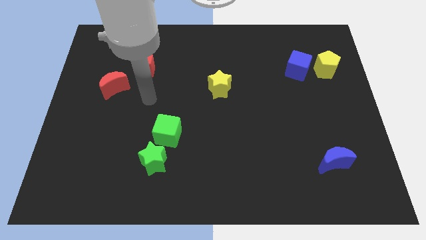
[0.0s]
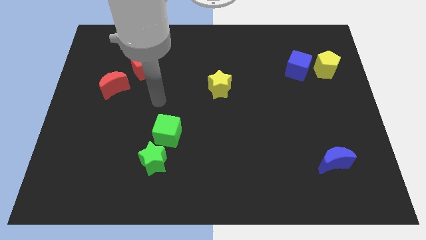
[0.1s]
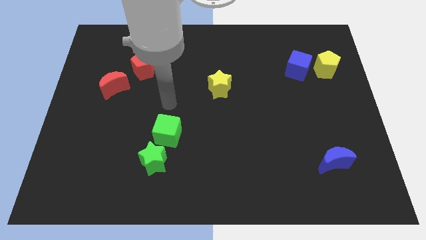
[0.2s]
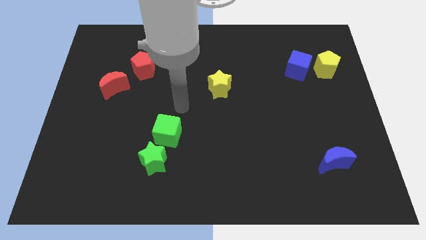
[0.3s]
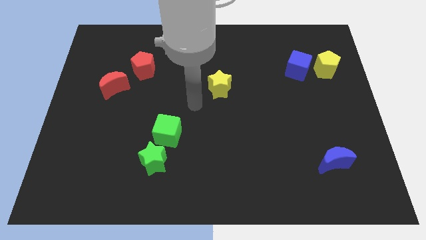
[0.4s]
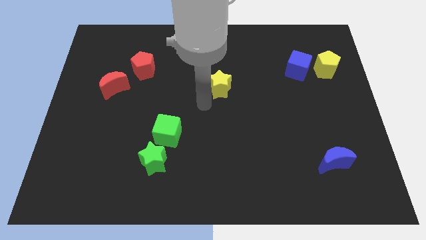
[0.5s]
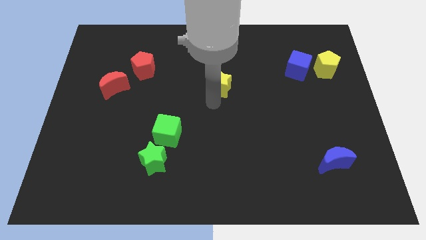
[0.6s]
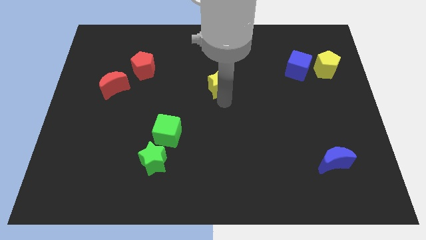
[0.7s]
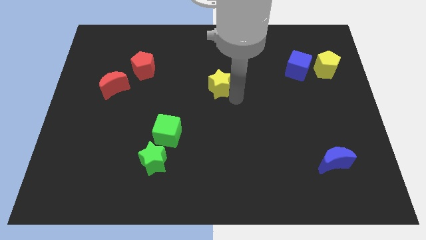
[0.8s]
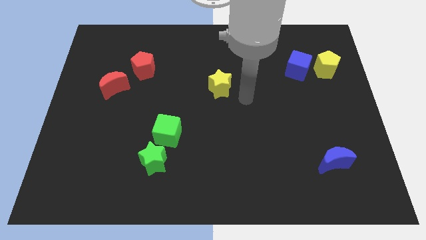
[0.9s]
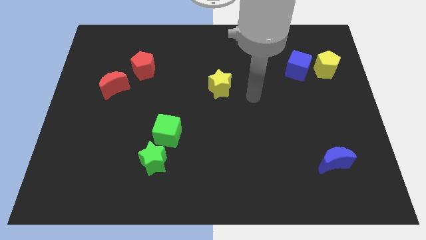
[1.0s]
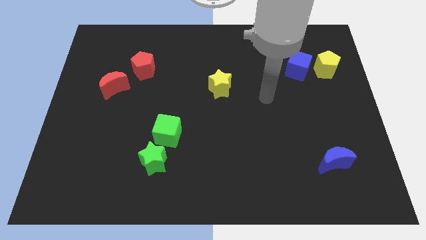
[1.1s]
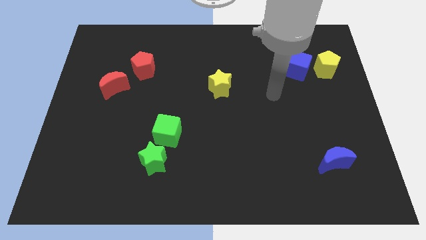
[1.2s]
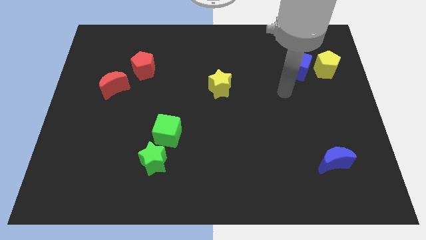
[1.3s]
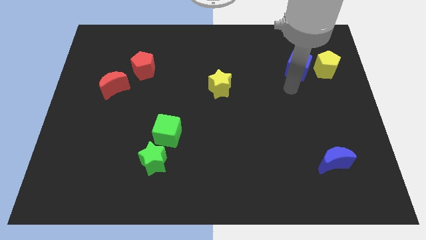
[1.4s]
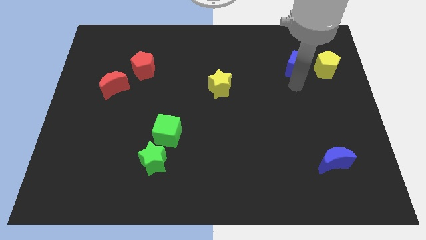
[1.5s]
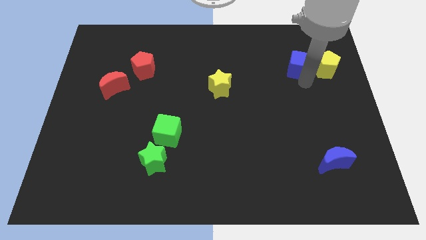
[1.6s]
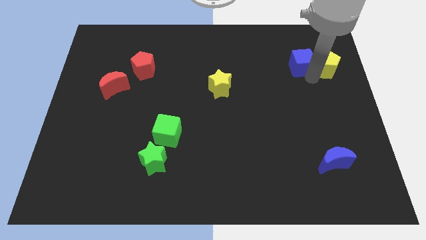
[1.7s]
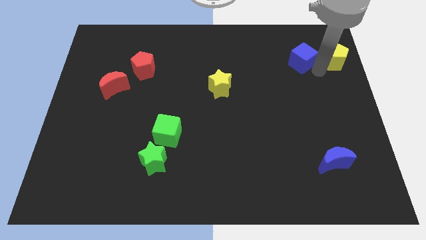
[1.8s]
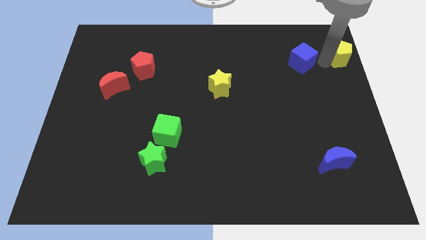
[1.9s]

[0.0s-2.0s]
move the blue cube away from the yellow pentagon

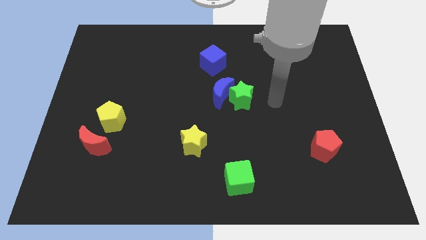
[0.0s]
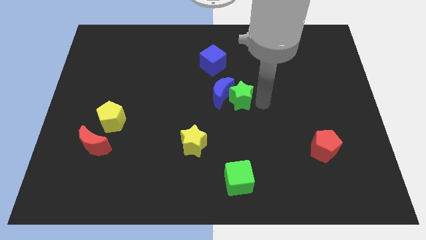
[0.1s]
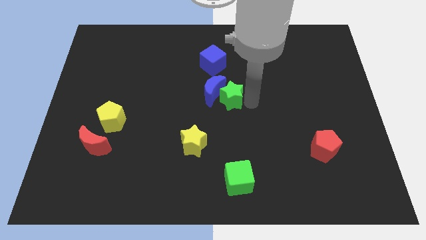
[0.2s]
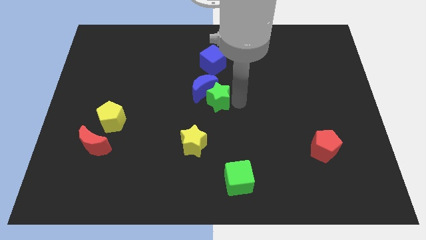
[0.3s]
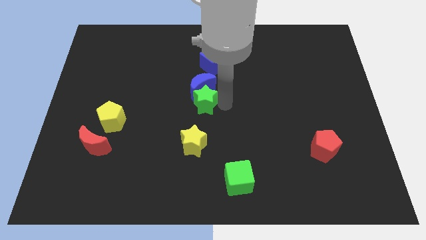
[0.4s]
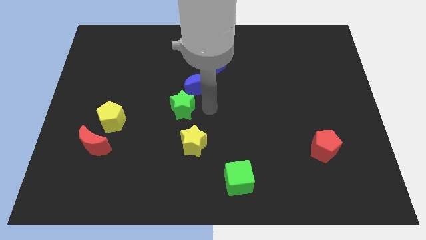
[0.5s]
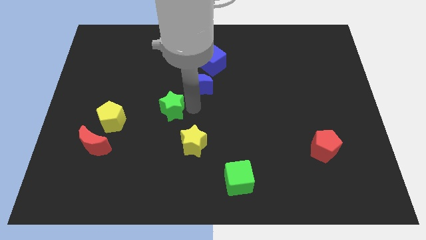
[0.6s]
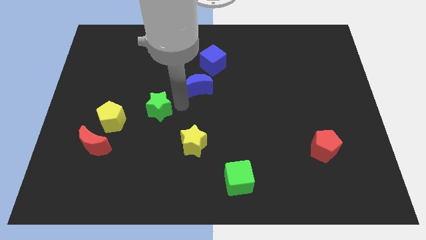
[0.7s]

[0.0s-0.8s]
separate the blue moon from the green star

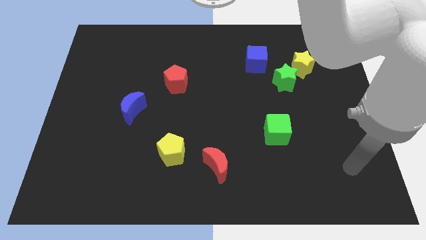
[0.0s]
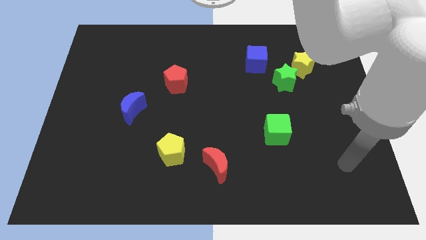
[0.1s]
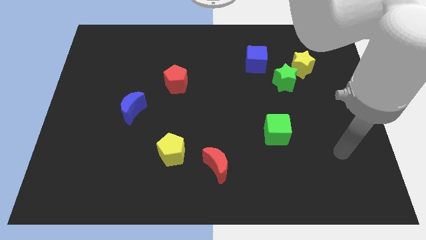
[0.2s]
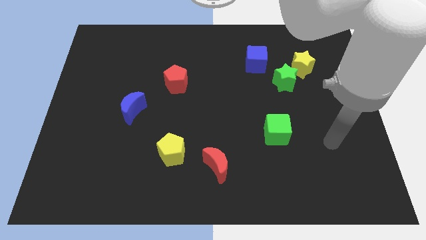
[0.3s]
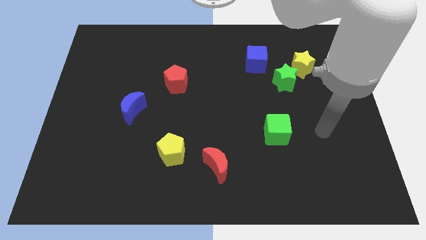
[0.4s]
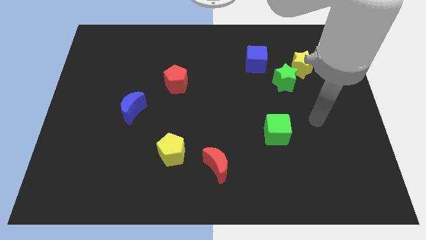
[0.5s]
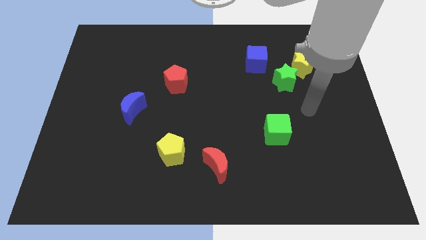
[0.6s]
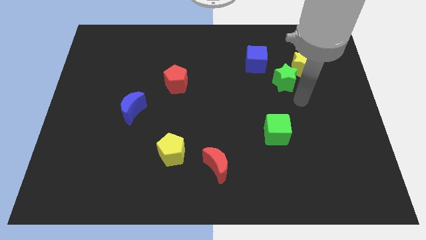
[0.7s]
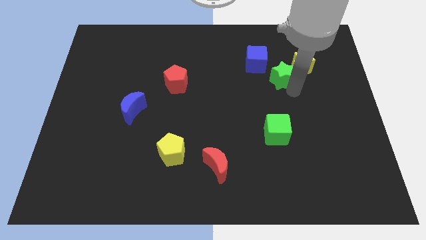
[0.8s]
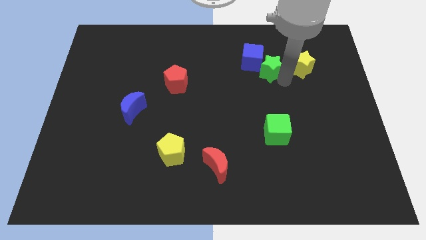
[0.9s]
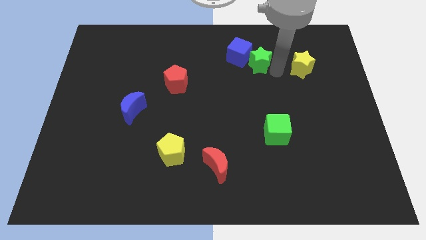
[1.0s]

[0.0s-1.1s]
move the yellow star away from the green star

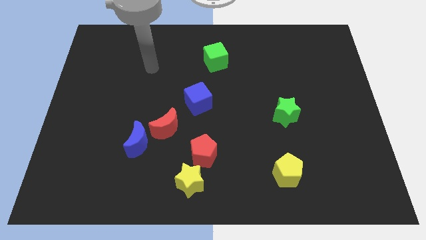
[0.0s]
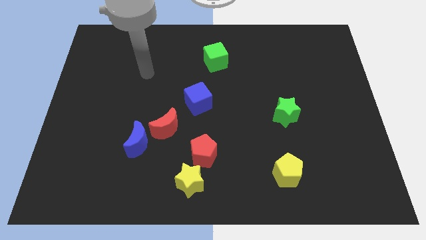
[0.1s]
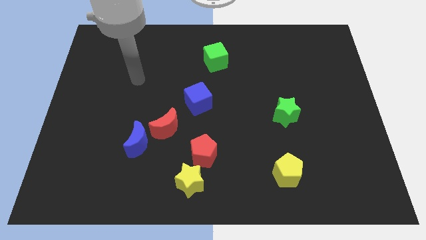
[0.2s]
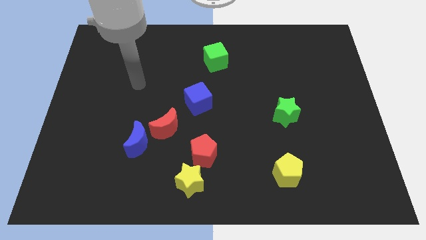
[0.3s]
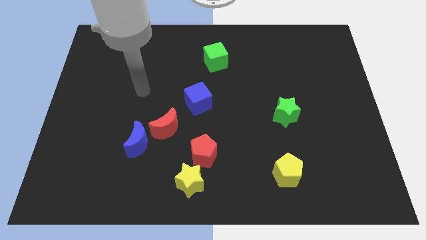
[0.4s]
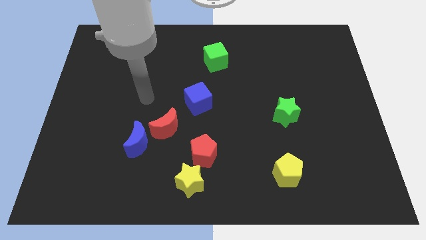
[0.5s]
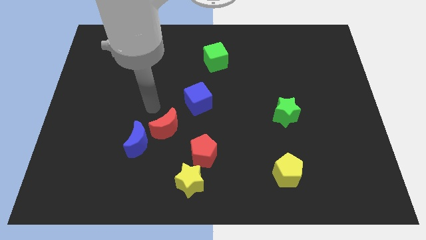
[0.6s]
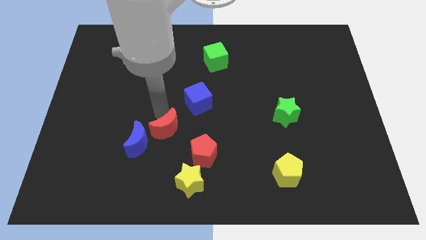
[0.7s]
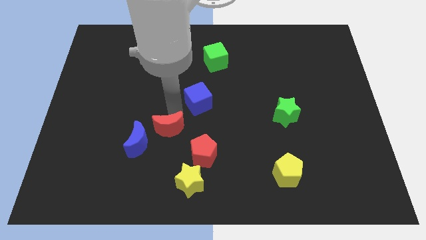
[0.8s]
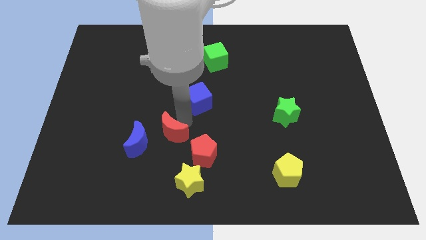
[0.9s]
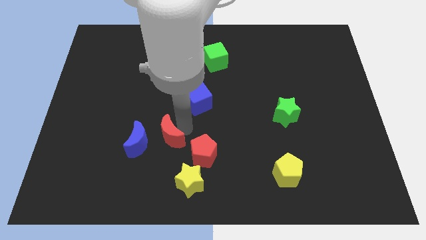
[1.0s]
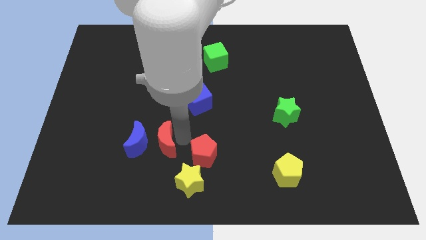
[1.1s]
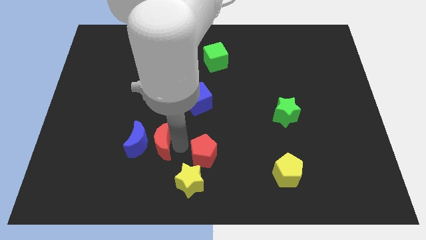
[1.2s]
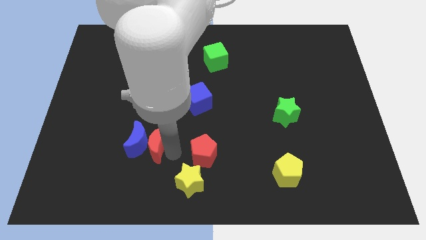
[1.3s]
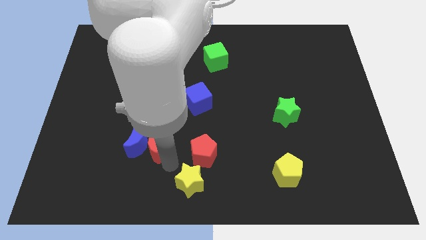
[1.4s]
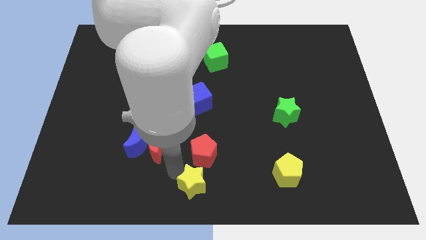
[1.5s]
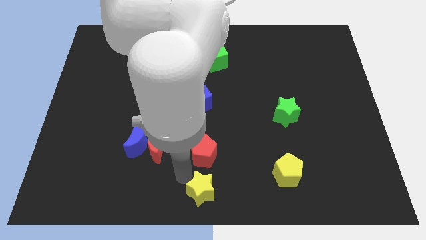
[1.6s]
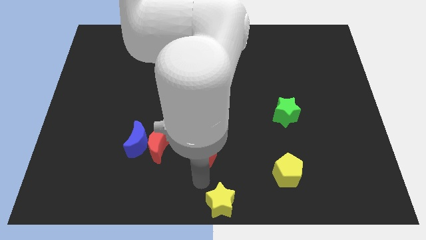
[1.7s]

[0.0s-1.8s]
separate the red pentagon from the yellow star

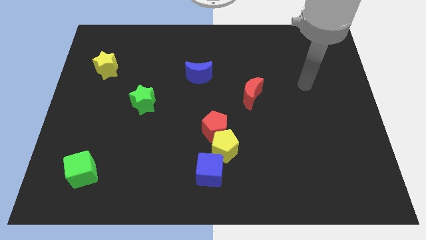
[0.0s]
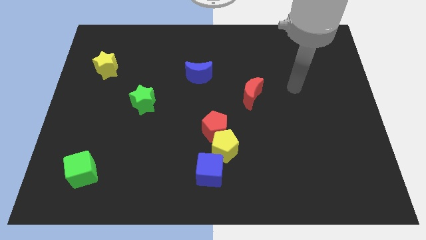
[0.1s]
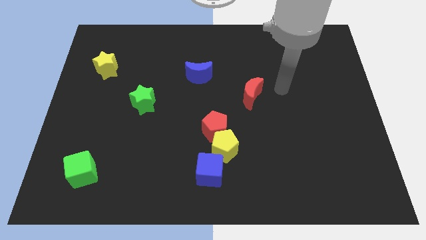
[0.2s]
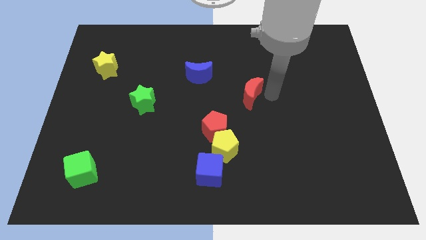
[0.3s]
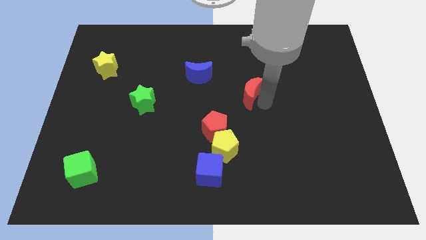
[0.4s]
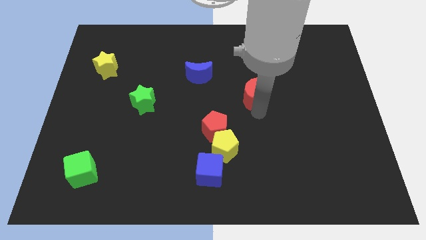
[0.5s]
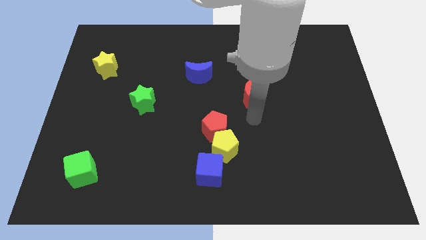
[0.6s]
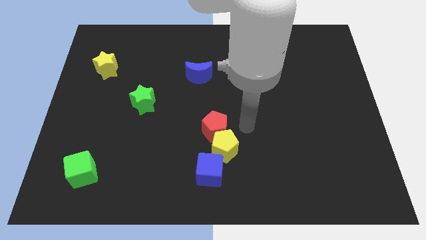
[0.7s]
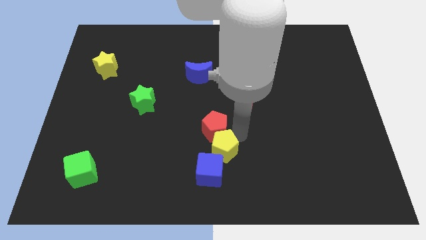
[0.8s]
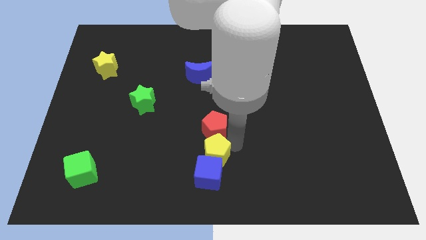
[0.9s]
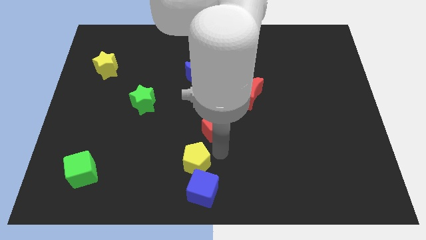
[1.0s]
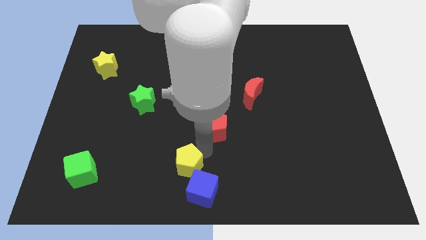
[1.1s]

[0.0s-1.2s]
move the red pentagon away from the yellow pentagon

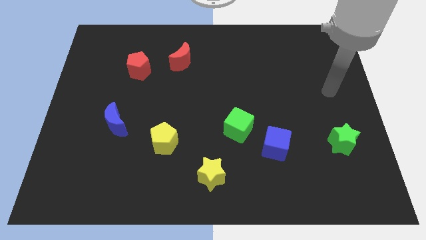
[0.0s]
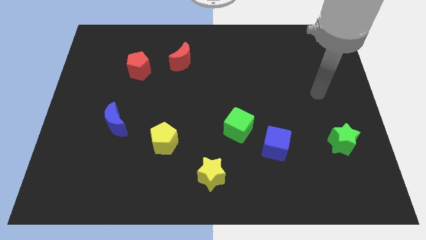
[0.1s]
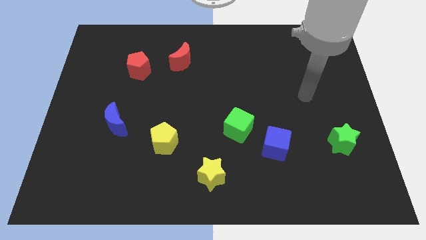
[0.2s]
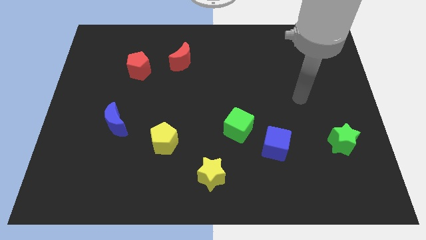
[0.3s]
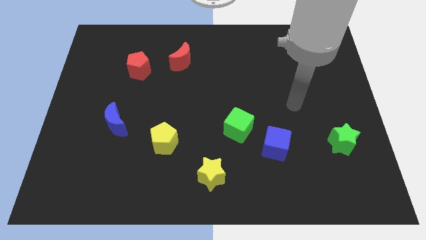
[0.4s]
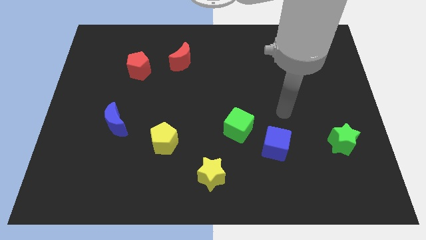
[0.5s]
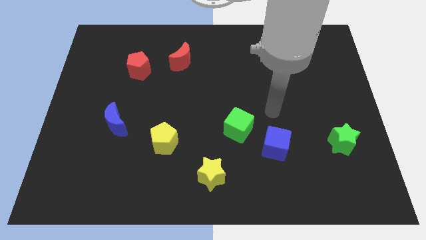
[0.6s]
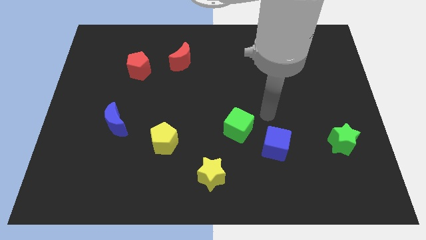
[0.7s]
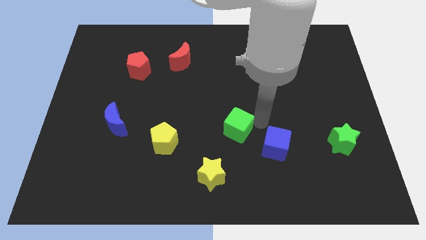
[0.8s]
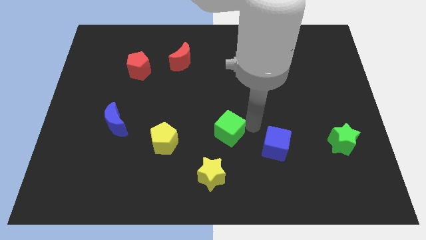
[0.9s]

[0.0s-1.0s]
separate the blue cube from the green cube

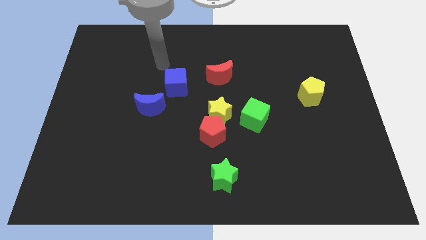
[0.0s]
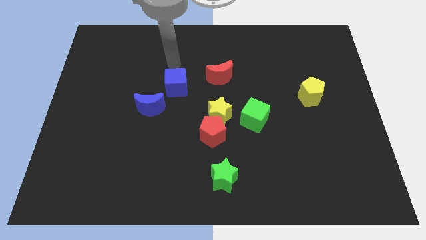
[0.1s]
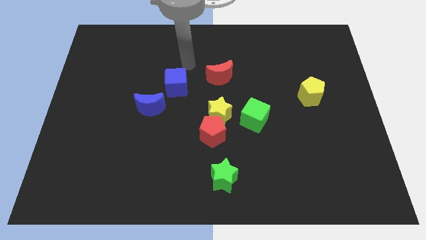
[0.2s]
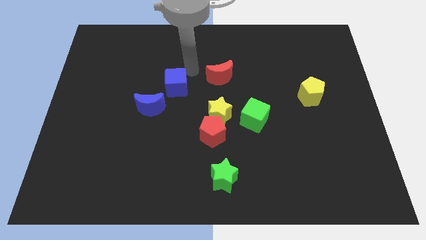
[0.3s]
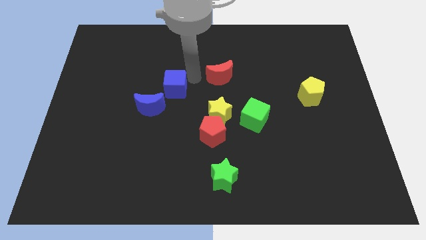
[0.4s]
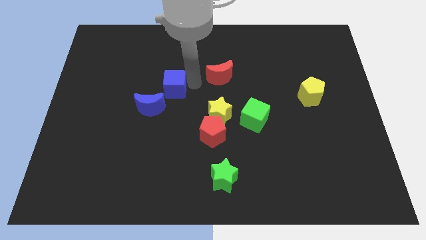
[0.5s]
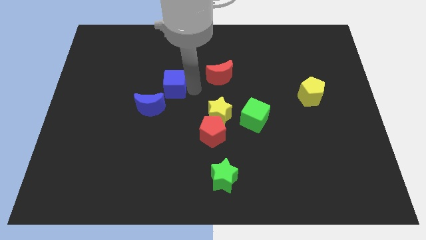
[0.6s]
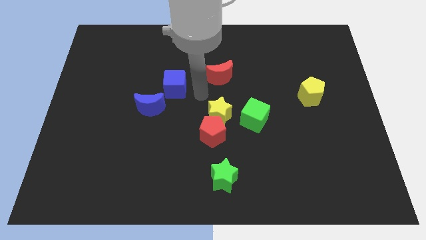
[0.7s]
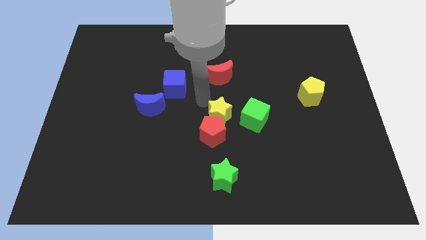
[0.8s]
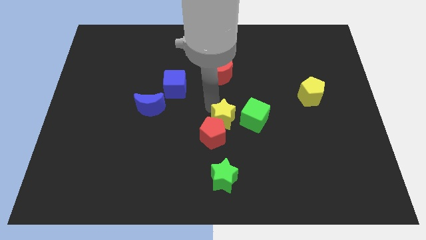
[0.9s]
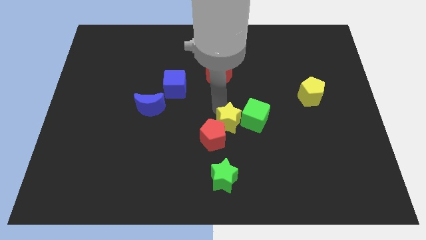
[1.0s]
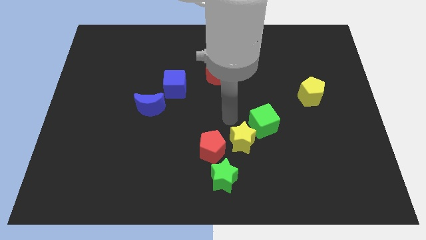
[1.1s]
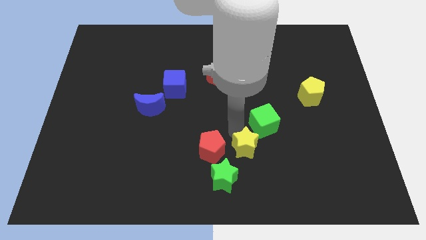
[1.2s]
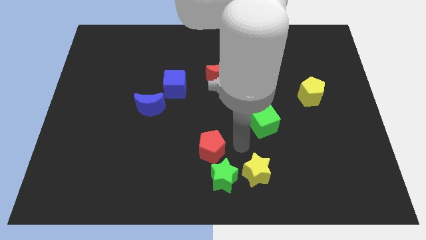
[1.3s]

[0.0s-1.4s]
move the red pentagon away from the yellow star
